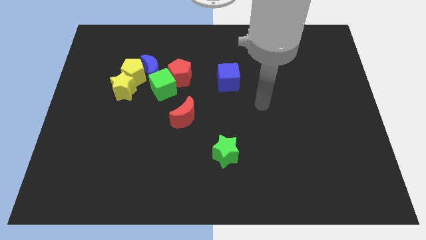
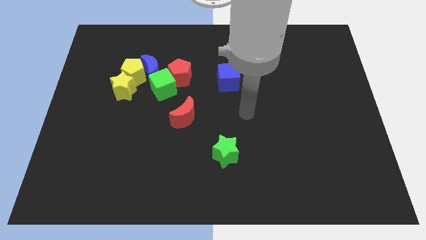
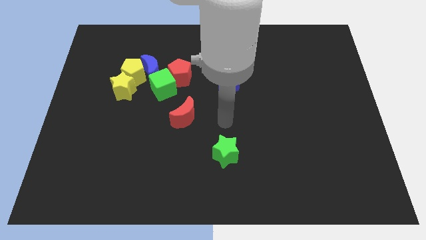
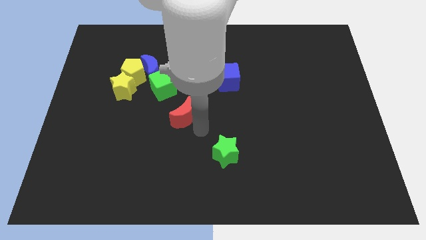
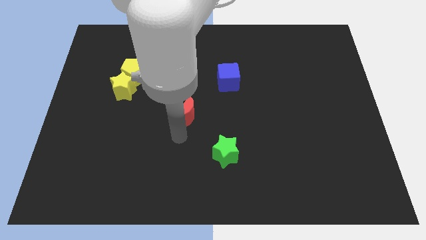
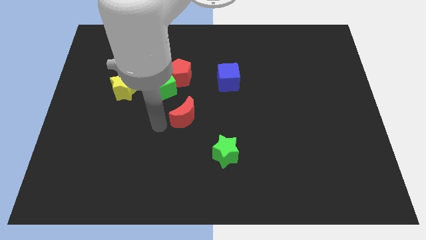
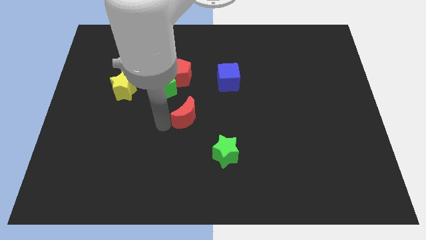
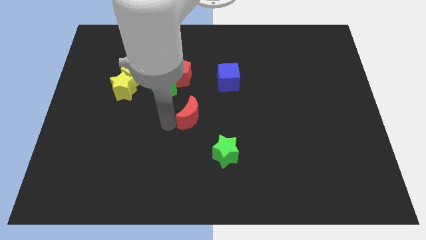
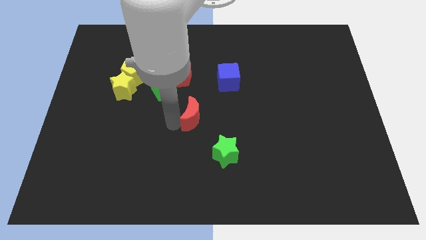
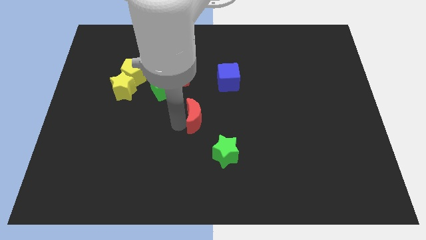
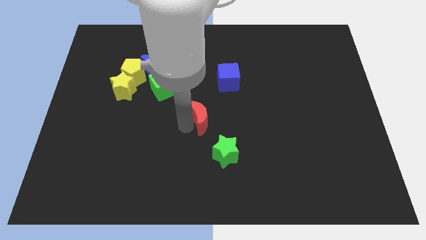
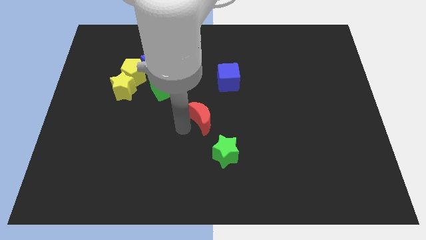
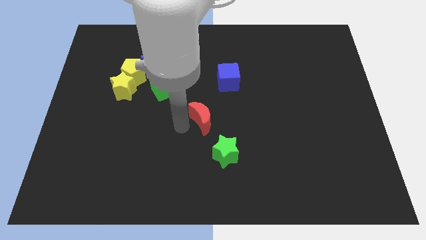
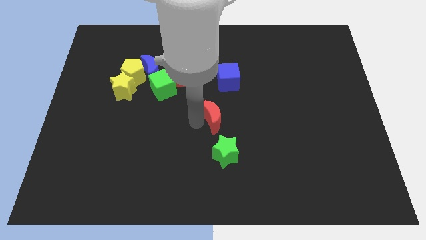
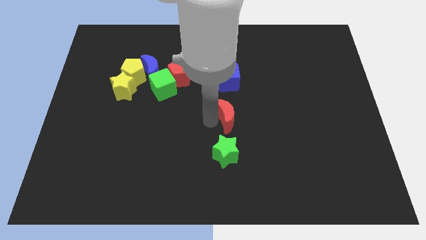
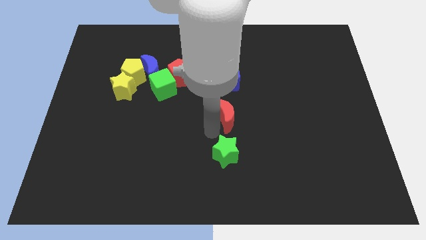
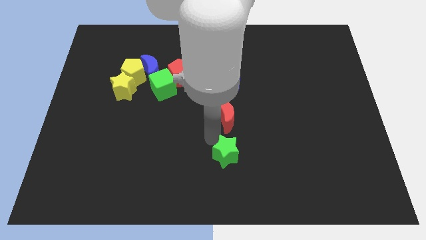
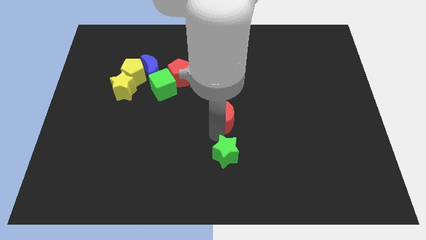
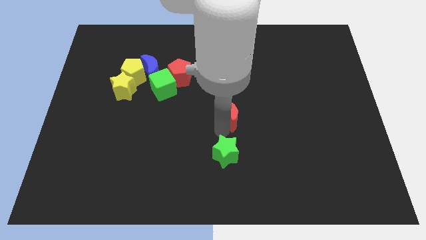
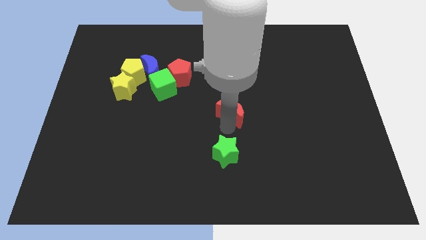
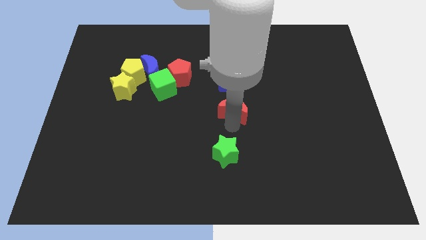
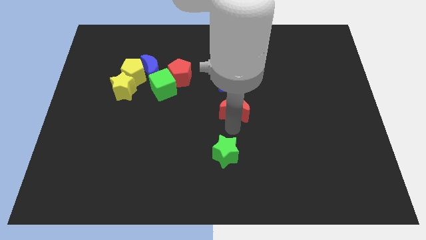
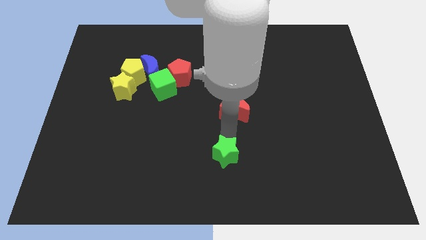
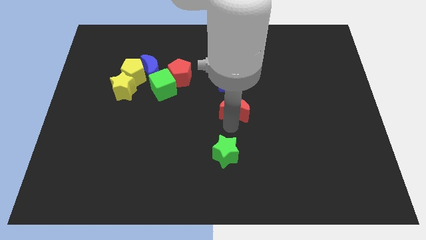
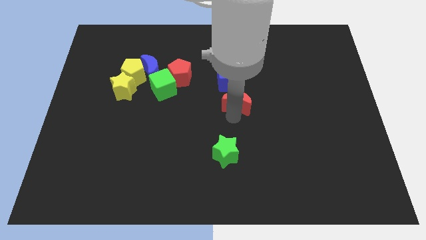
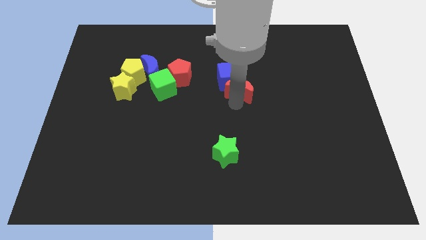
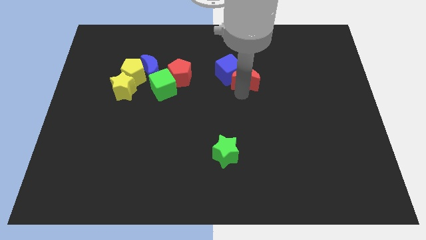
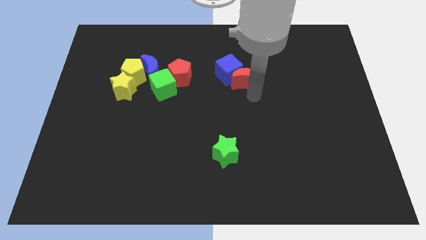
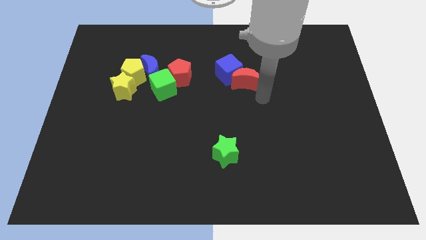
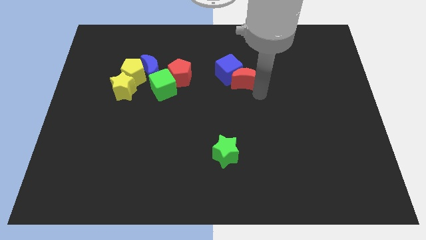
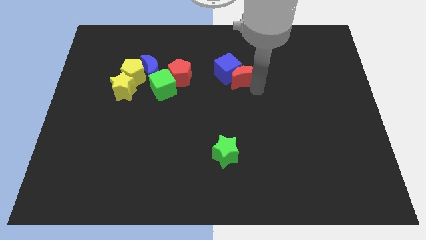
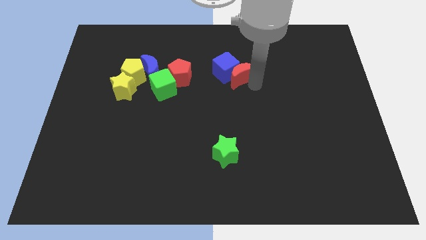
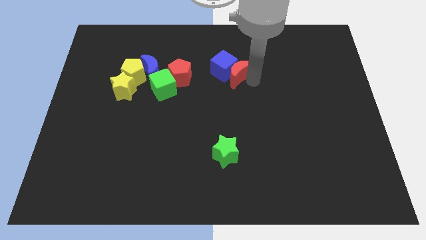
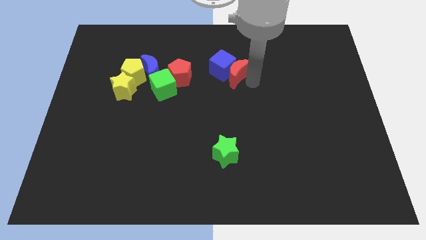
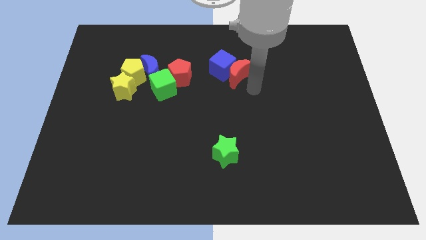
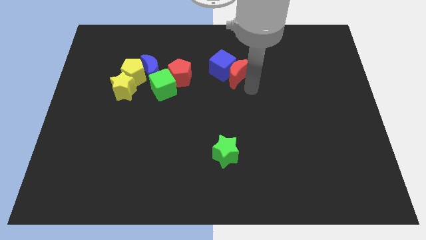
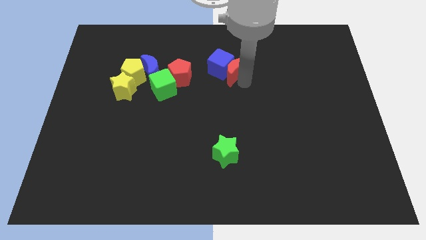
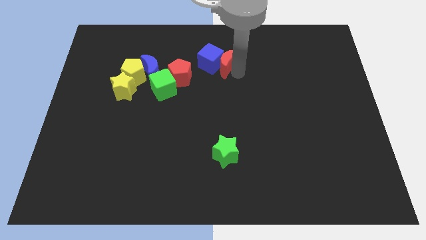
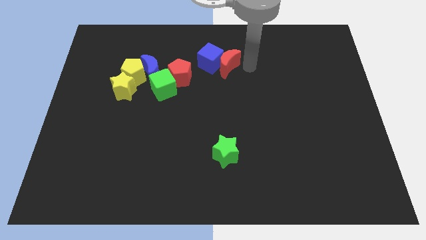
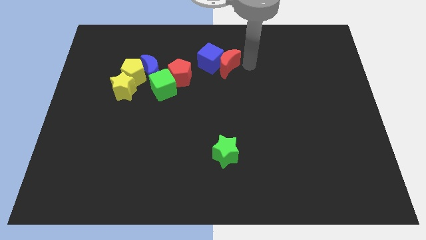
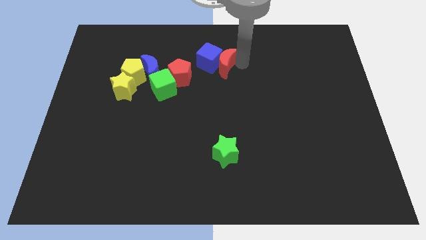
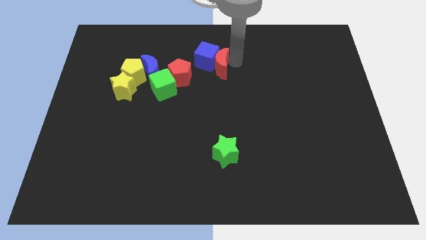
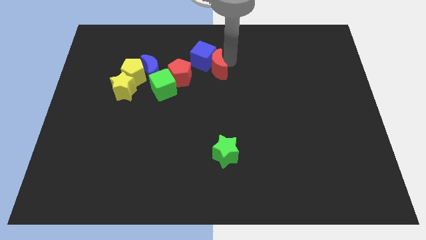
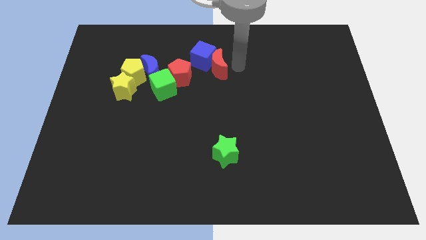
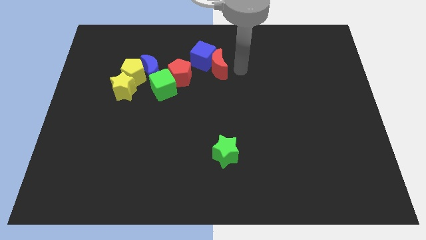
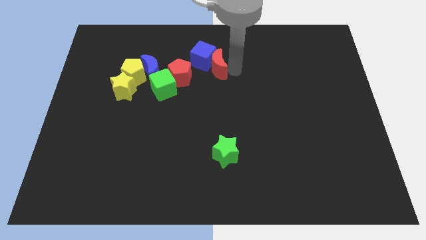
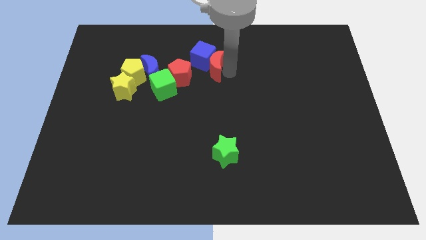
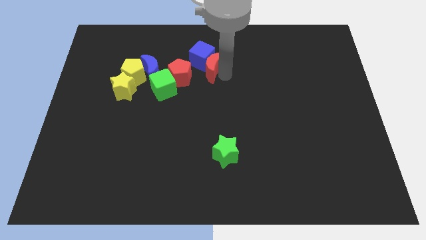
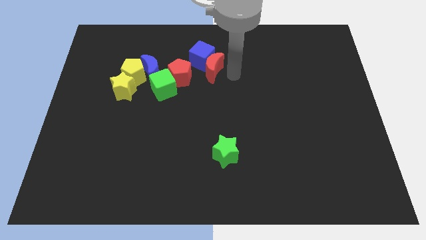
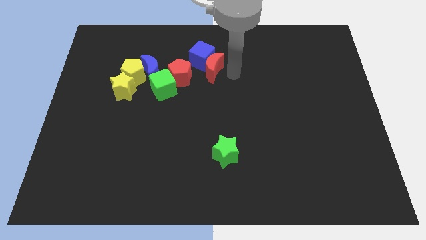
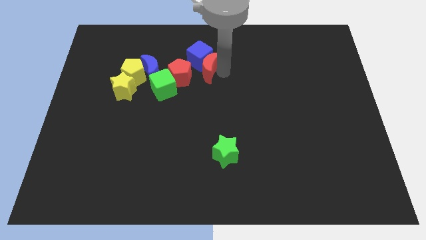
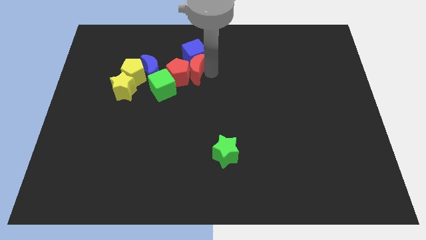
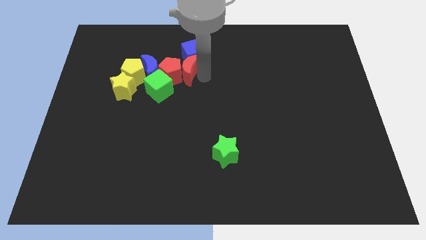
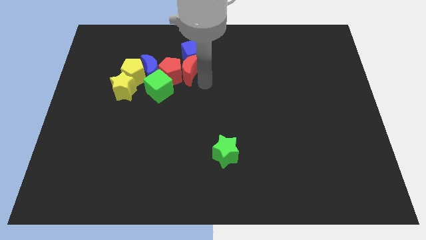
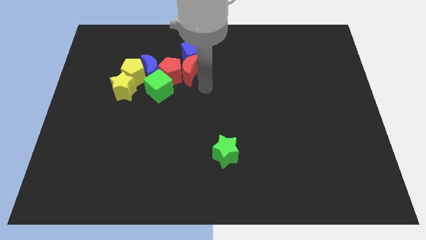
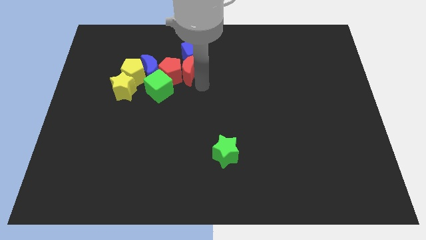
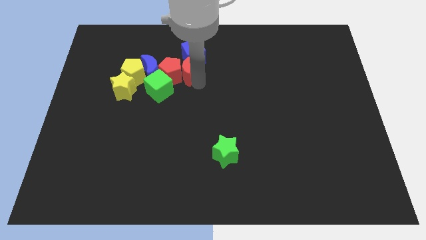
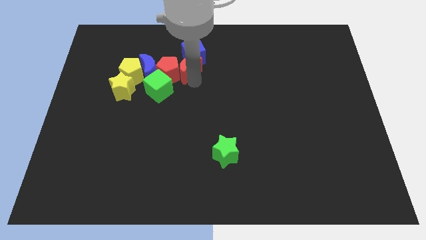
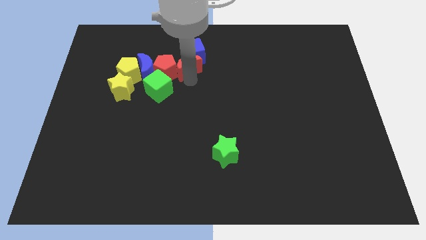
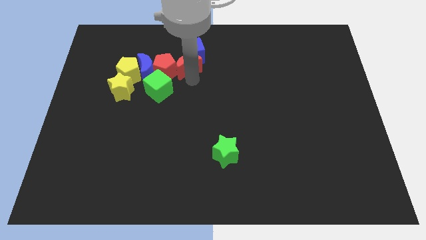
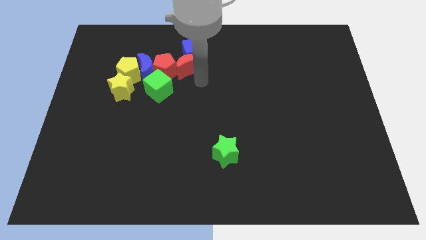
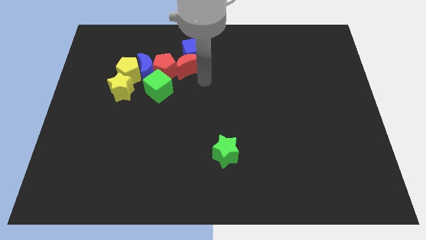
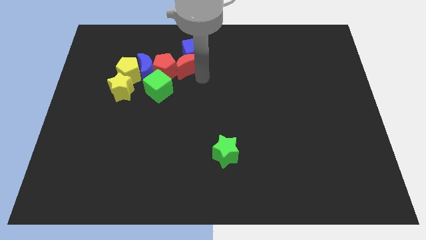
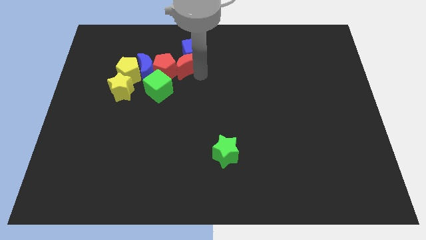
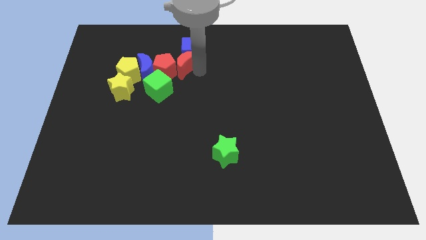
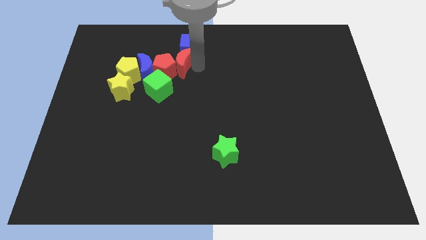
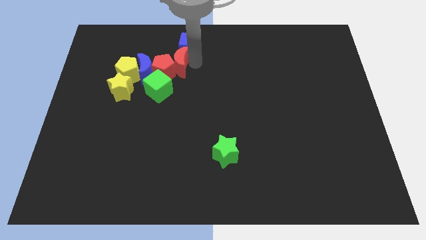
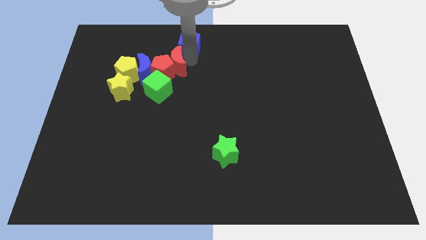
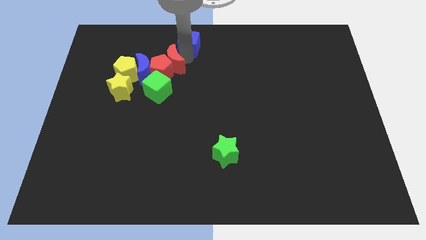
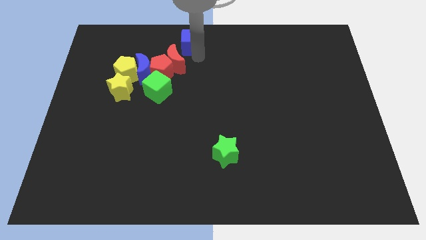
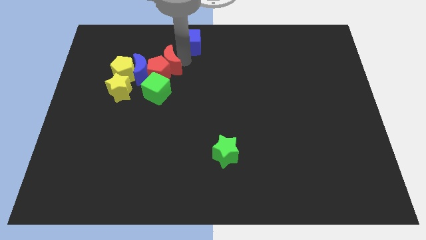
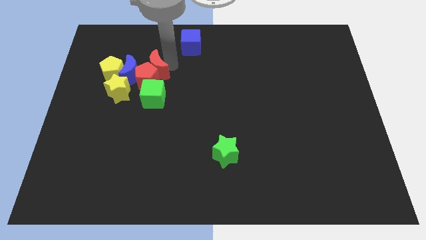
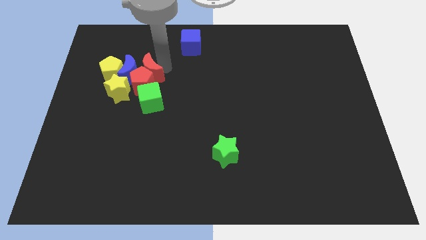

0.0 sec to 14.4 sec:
put the red moon next to the blue moon
